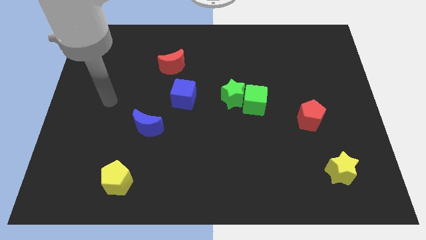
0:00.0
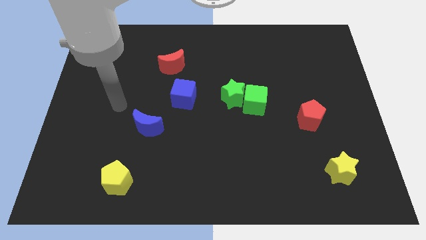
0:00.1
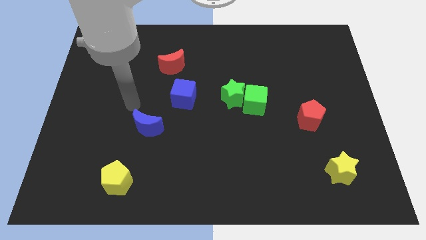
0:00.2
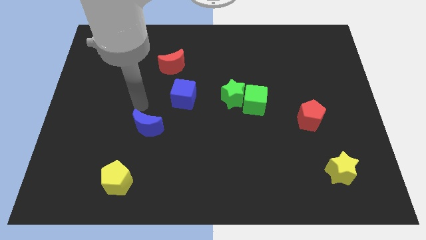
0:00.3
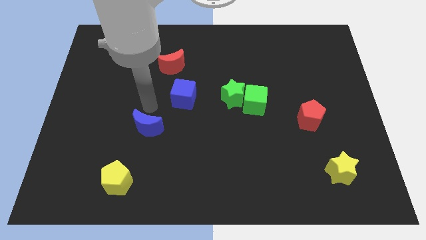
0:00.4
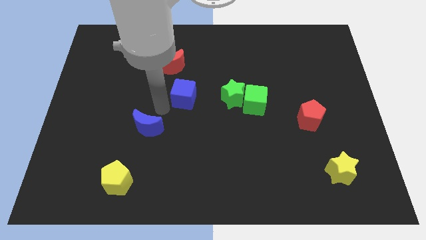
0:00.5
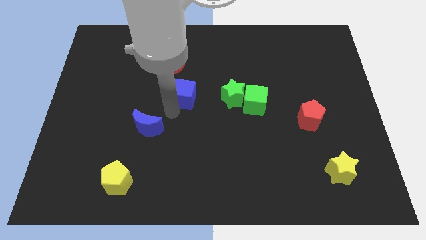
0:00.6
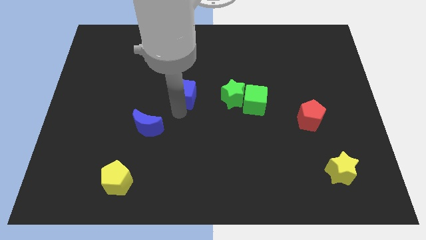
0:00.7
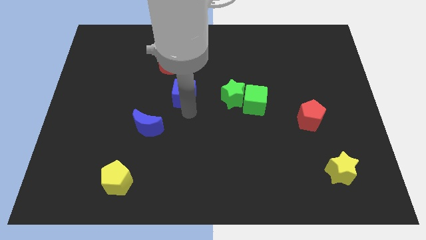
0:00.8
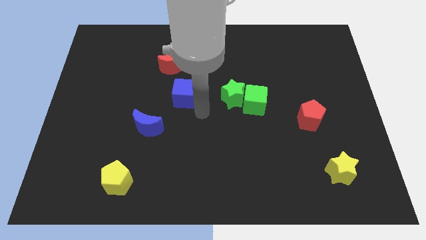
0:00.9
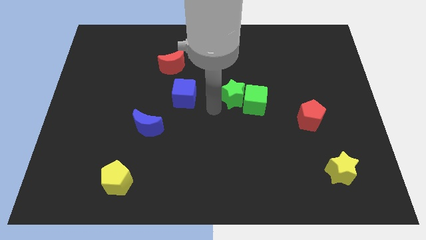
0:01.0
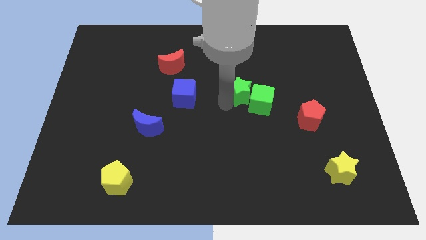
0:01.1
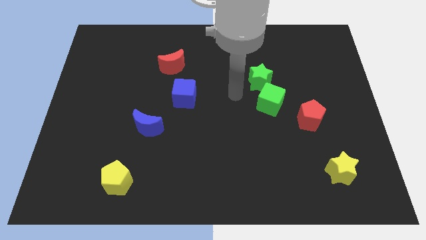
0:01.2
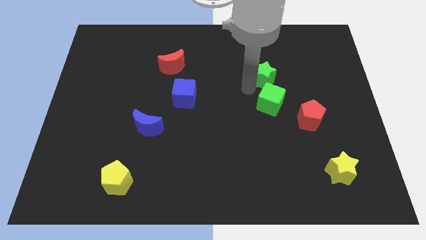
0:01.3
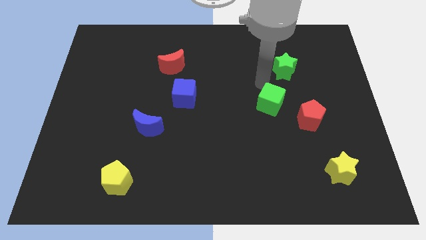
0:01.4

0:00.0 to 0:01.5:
separate the green cube from the green star

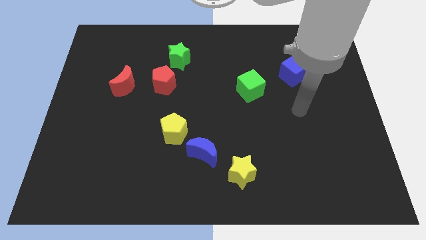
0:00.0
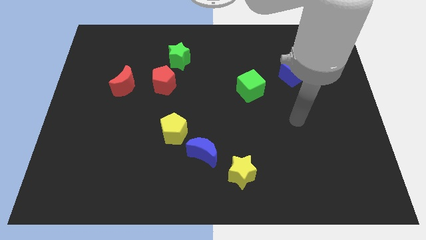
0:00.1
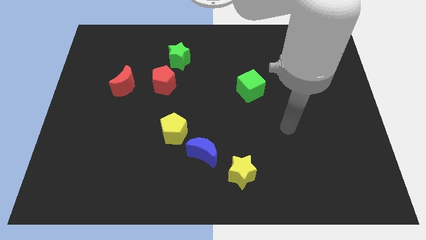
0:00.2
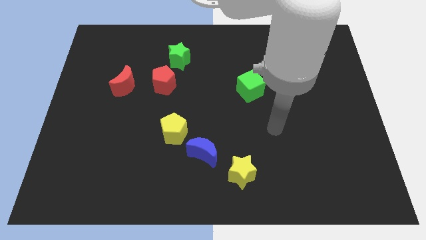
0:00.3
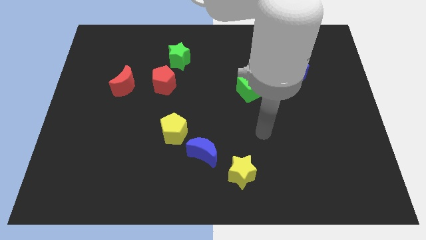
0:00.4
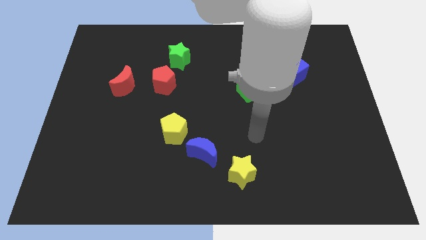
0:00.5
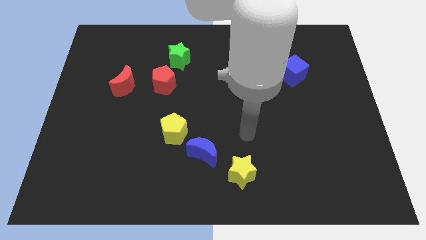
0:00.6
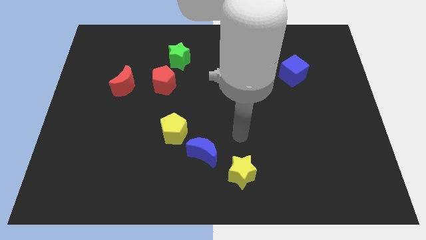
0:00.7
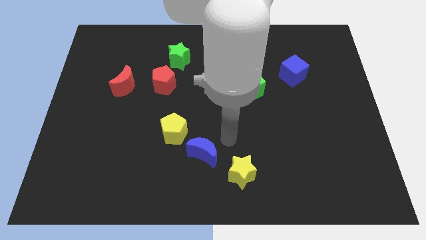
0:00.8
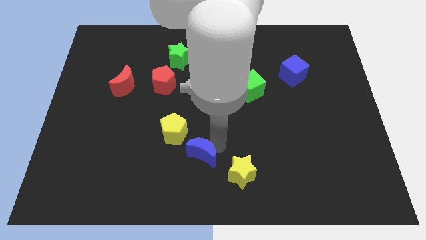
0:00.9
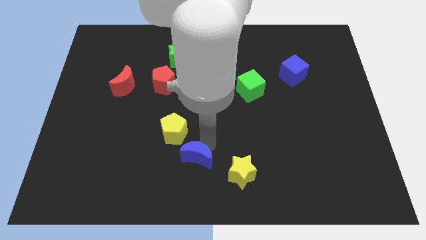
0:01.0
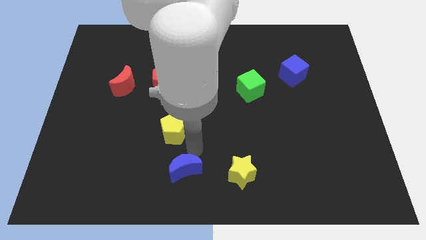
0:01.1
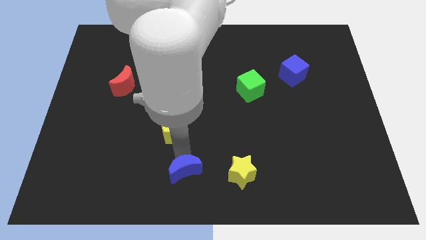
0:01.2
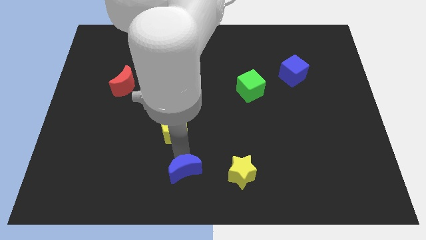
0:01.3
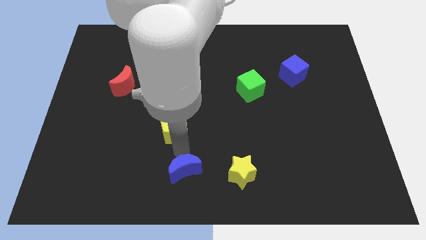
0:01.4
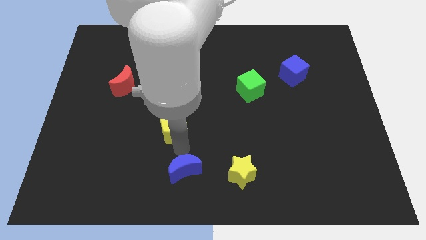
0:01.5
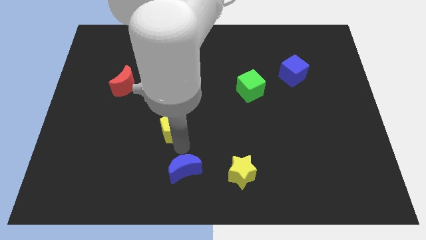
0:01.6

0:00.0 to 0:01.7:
separate the yellow pentagon from the blue moon

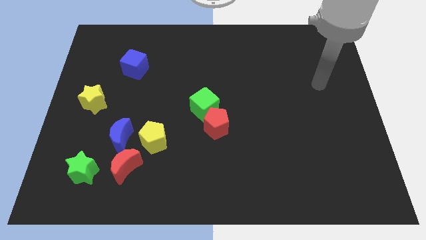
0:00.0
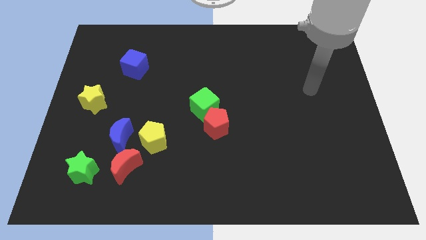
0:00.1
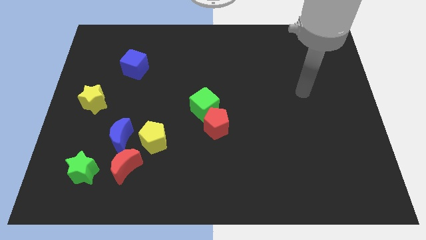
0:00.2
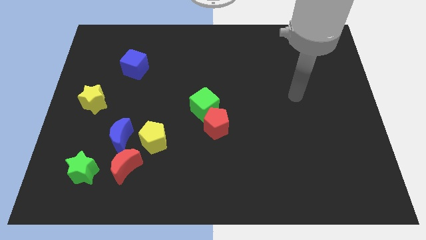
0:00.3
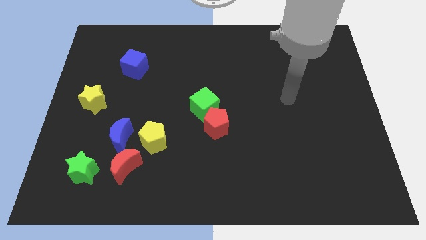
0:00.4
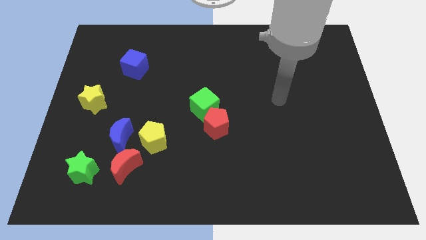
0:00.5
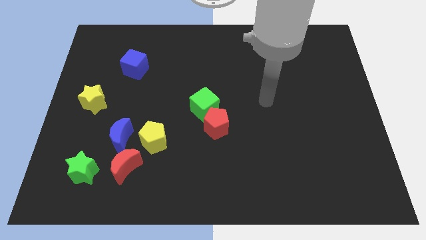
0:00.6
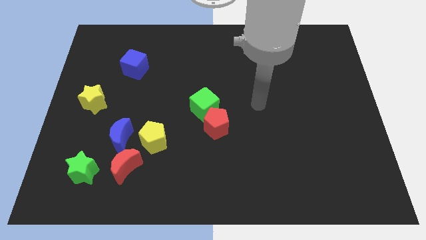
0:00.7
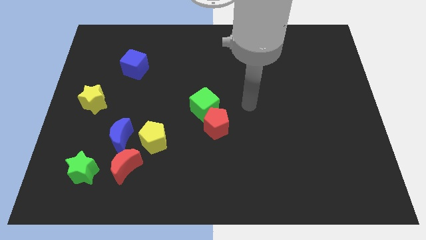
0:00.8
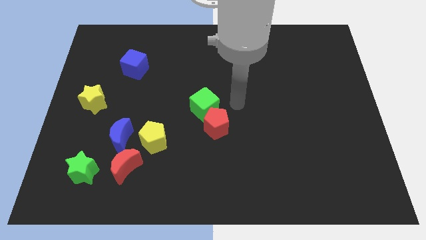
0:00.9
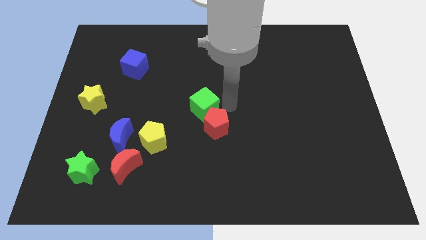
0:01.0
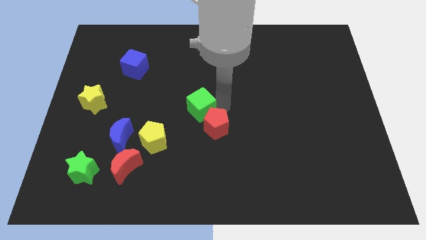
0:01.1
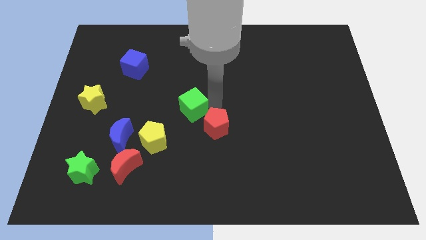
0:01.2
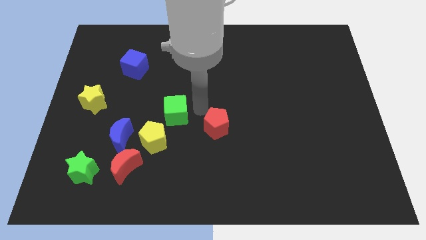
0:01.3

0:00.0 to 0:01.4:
pull the red pentagon apart from the green cube

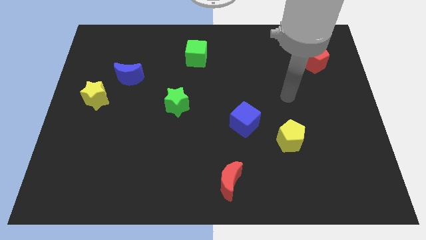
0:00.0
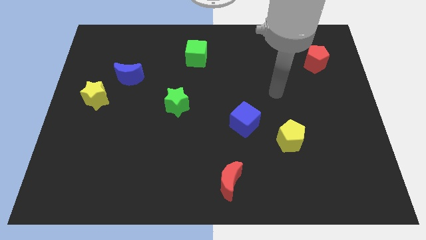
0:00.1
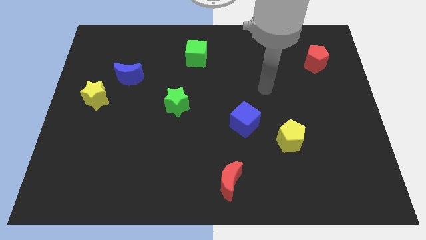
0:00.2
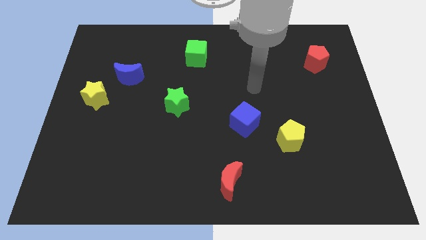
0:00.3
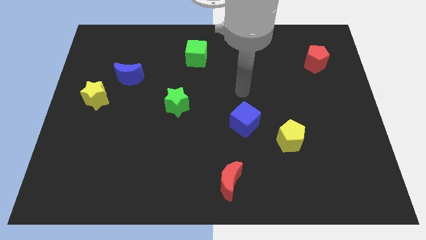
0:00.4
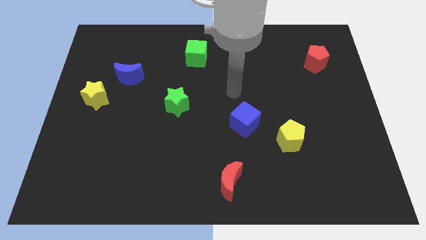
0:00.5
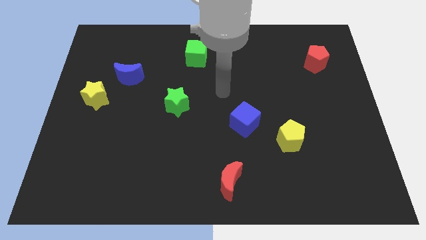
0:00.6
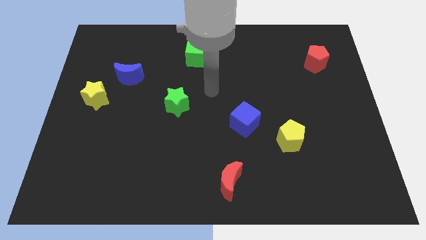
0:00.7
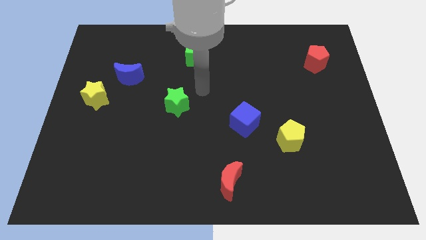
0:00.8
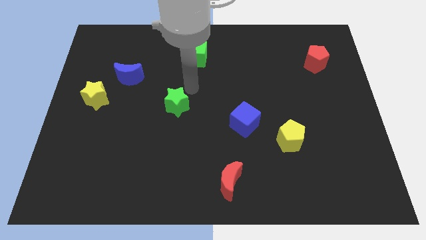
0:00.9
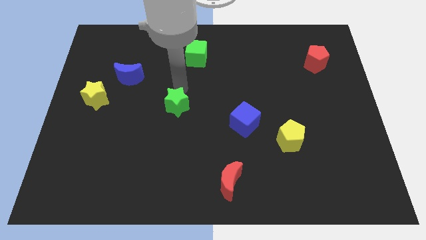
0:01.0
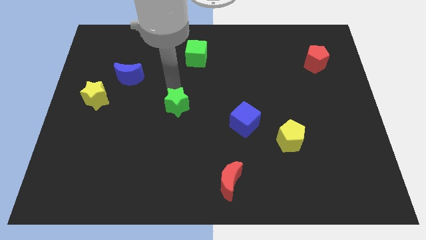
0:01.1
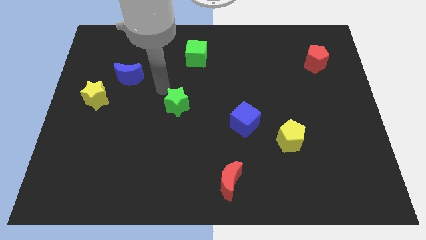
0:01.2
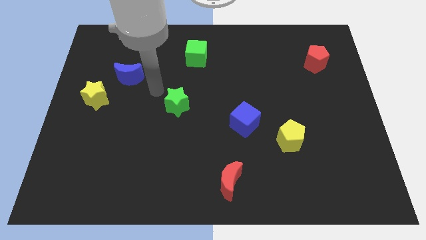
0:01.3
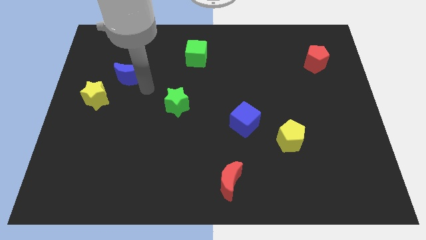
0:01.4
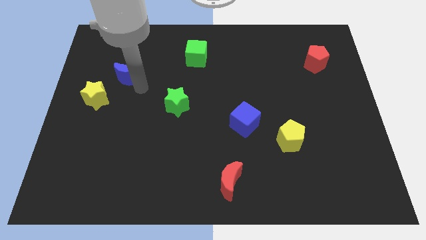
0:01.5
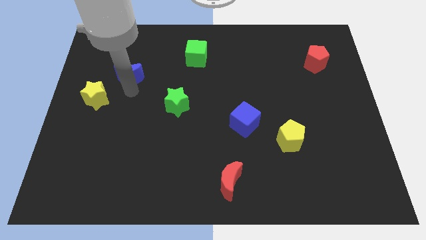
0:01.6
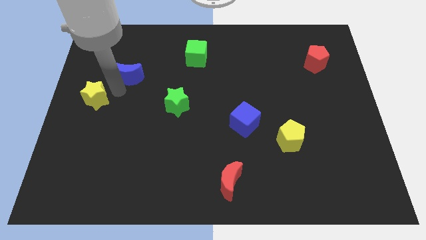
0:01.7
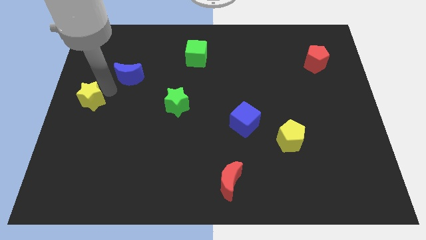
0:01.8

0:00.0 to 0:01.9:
move the blue moon away from the yellow star

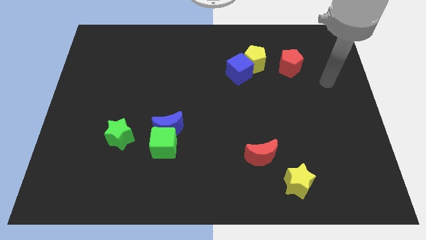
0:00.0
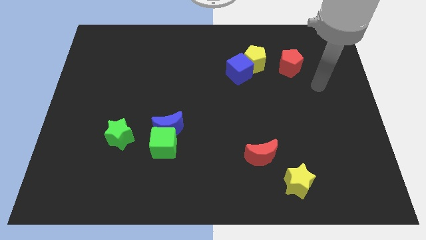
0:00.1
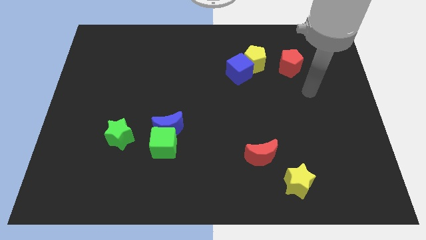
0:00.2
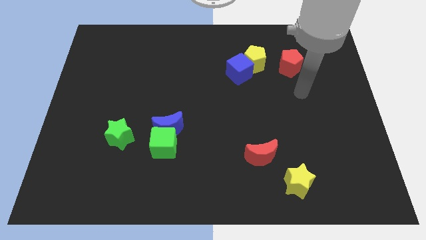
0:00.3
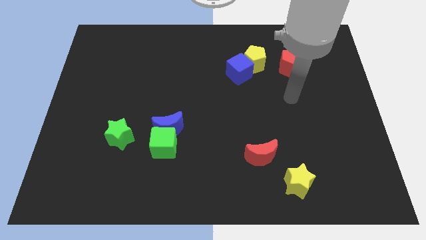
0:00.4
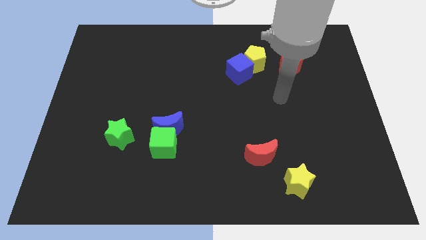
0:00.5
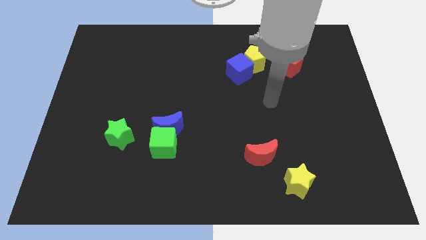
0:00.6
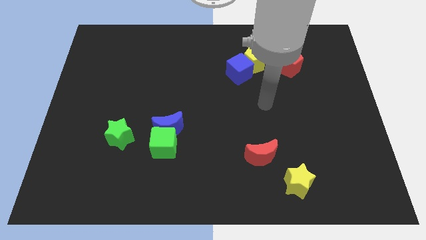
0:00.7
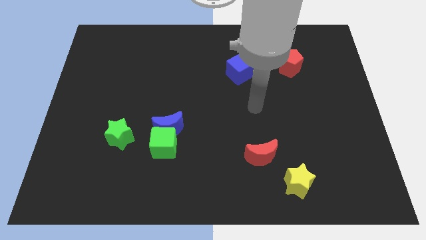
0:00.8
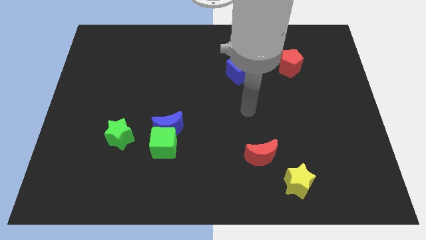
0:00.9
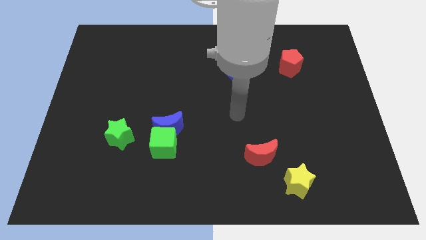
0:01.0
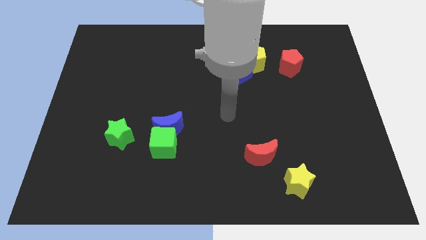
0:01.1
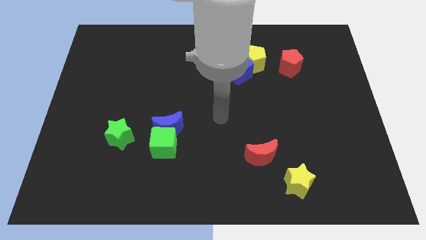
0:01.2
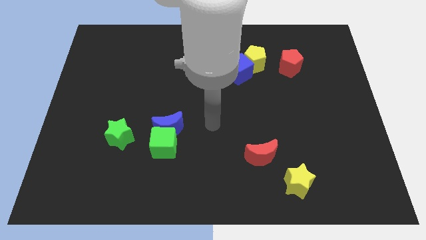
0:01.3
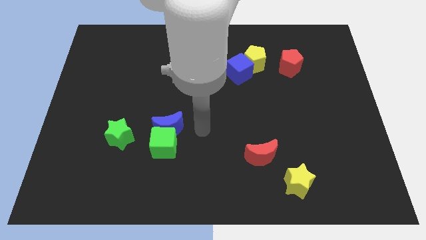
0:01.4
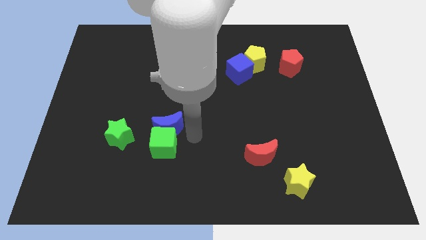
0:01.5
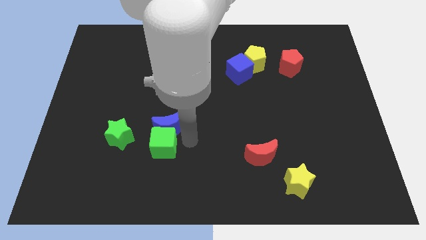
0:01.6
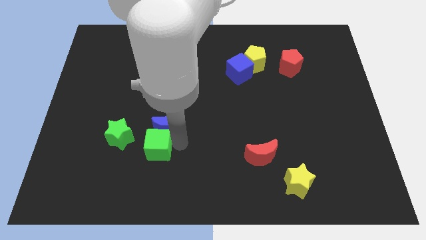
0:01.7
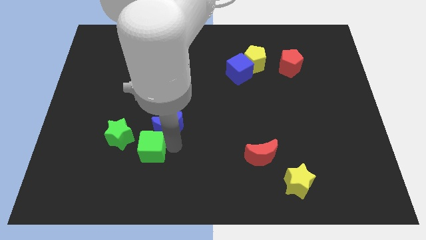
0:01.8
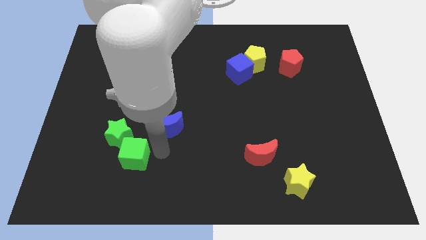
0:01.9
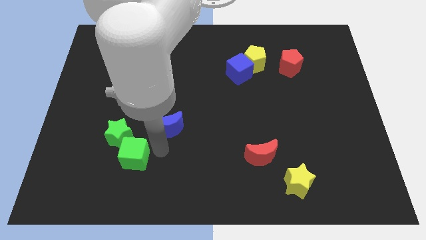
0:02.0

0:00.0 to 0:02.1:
separate the blue moon from the green cube

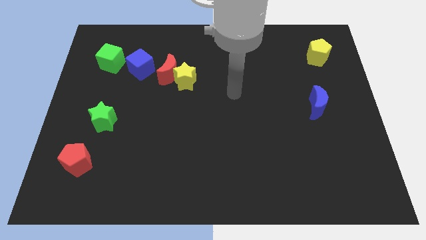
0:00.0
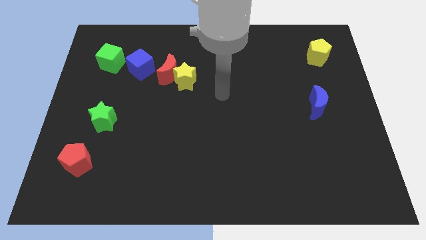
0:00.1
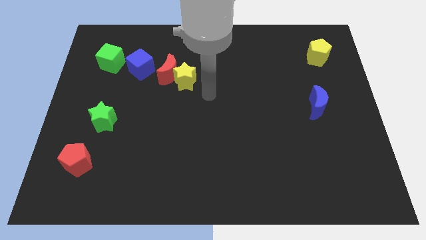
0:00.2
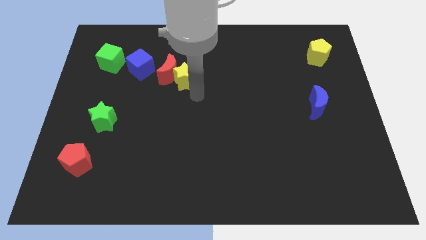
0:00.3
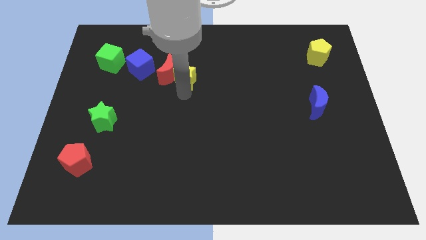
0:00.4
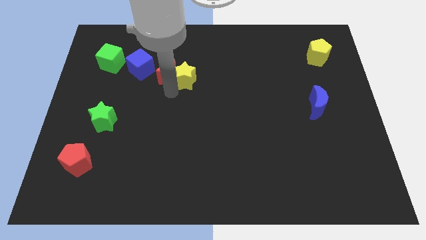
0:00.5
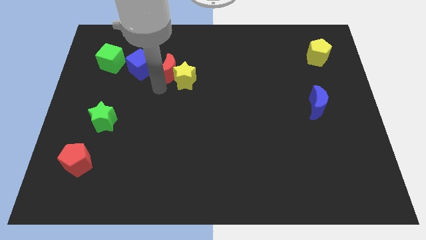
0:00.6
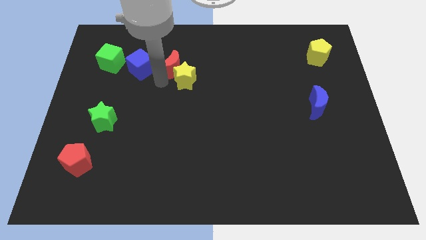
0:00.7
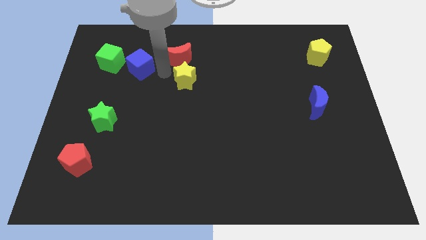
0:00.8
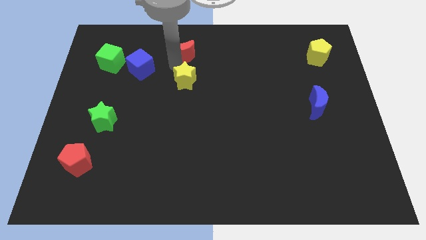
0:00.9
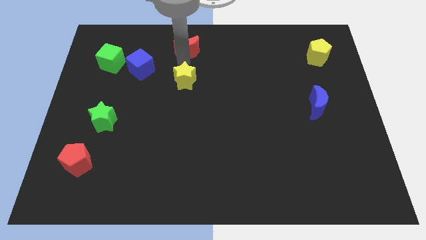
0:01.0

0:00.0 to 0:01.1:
separate the yellow star from the red moon
